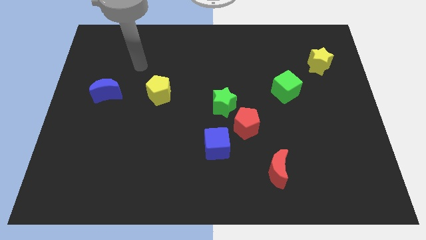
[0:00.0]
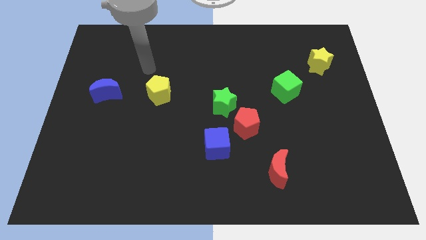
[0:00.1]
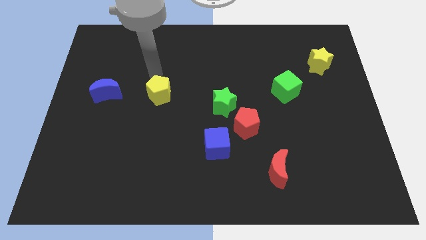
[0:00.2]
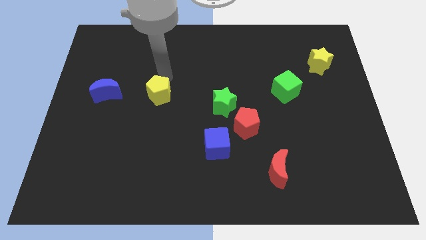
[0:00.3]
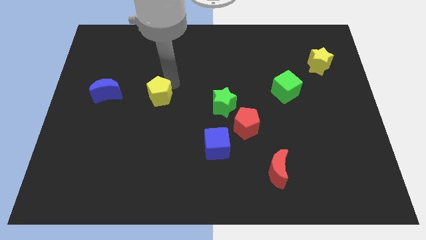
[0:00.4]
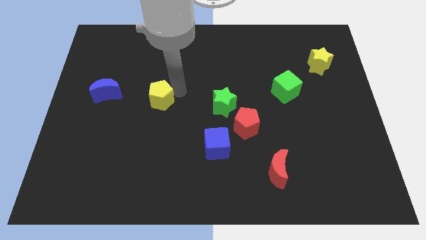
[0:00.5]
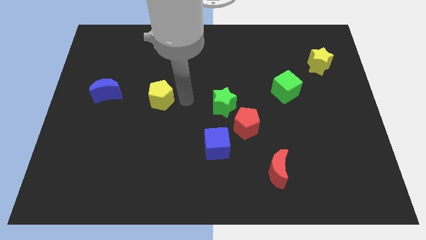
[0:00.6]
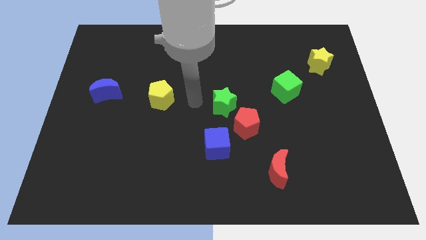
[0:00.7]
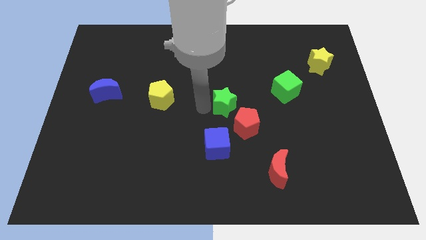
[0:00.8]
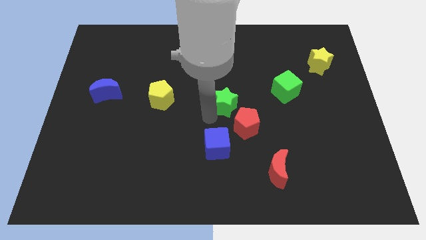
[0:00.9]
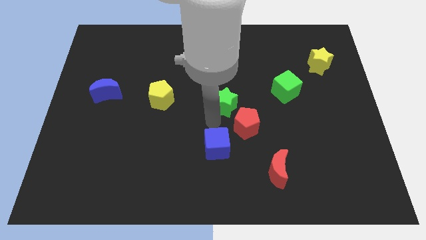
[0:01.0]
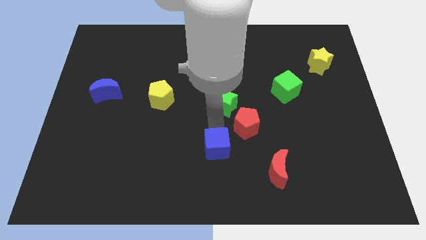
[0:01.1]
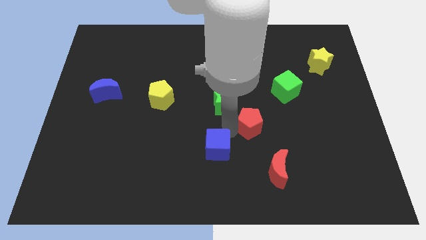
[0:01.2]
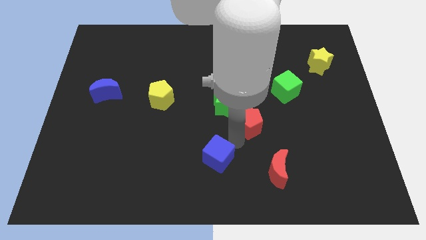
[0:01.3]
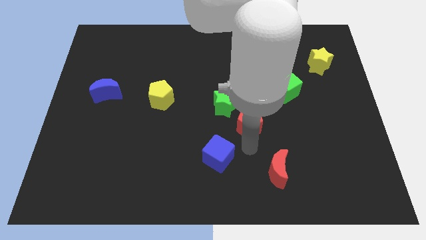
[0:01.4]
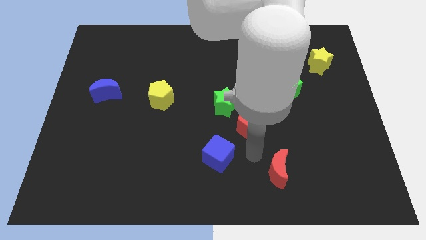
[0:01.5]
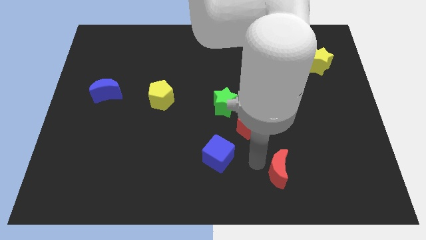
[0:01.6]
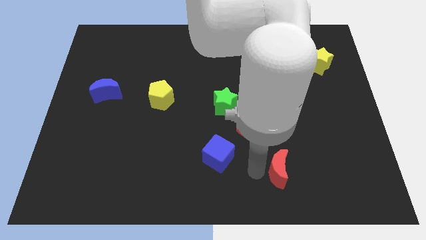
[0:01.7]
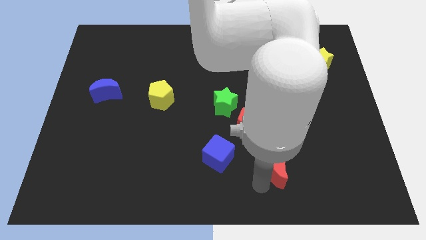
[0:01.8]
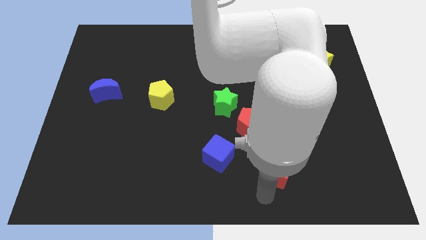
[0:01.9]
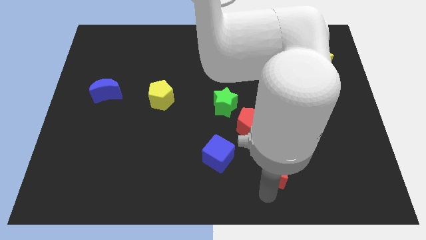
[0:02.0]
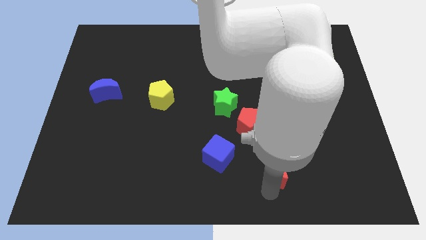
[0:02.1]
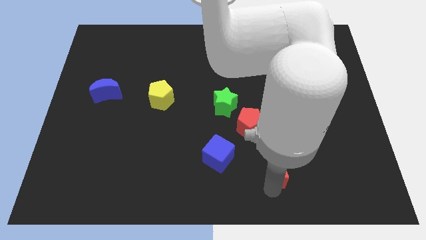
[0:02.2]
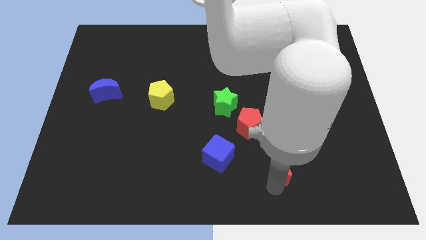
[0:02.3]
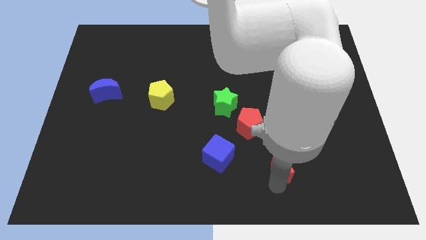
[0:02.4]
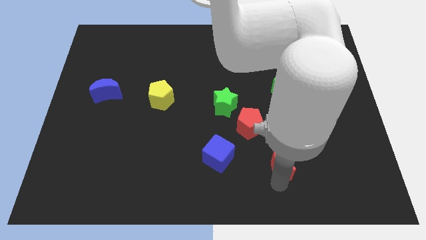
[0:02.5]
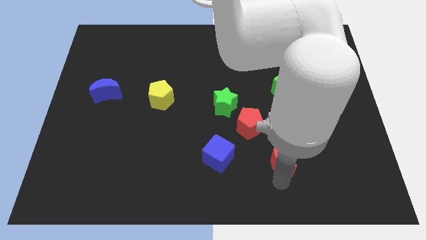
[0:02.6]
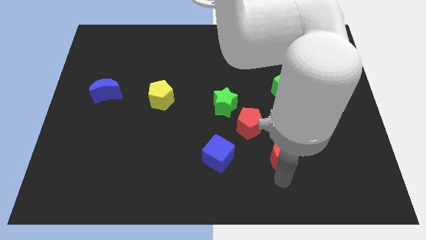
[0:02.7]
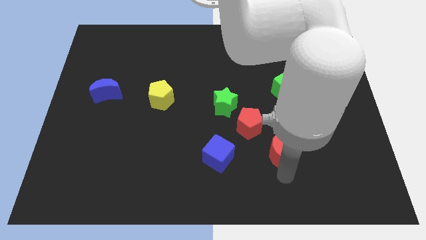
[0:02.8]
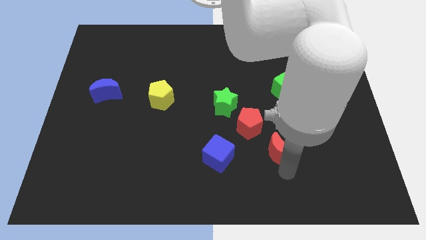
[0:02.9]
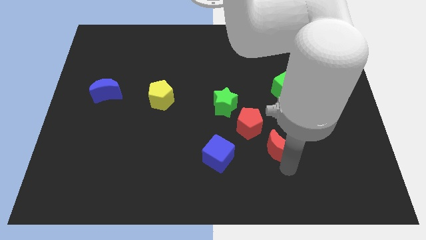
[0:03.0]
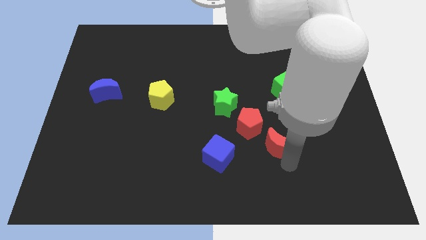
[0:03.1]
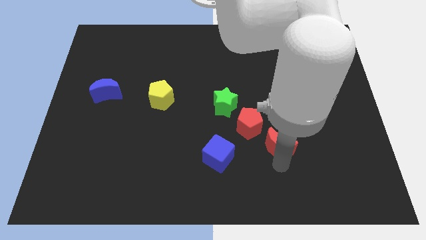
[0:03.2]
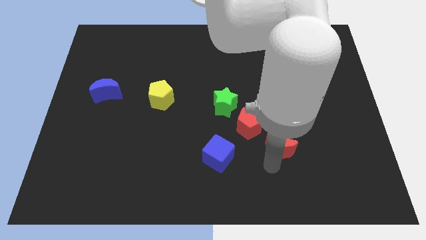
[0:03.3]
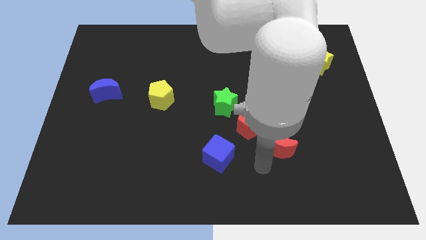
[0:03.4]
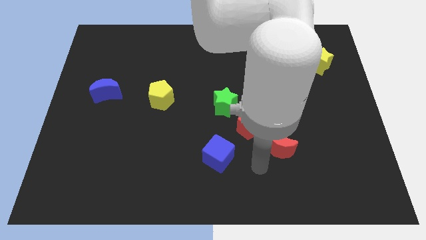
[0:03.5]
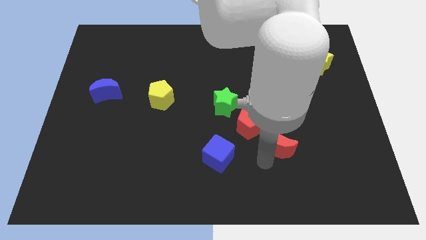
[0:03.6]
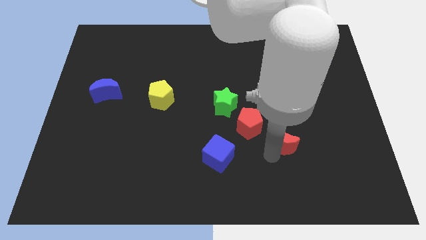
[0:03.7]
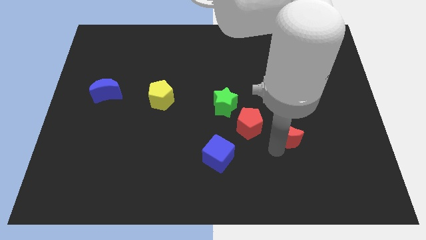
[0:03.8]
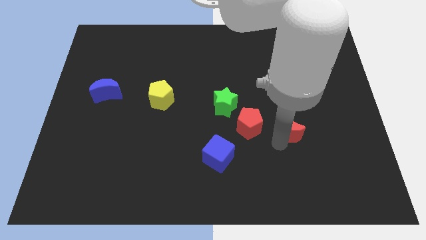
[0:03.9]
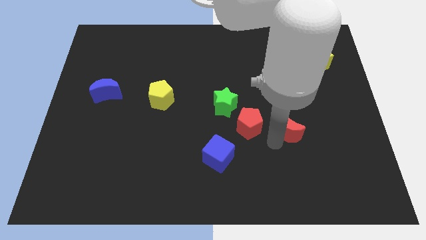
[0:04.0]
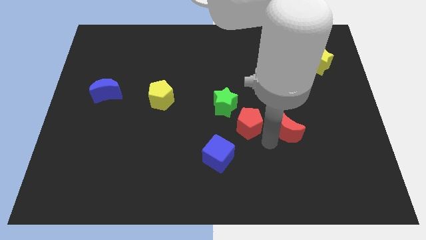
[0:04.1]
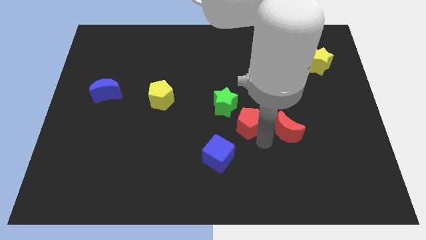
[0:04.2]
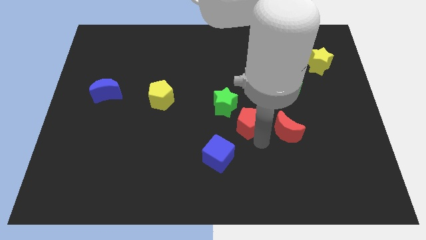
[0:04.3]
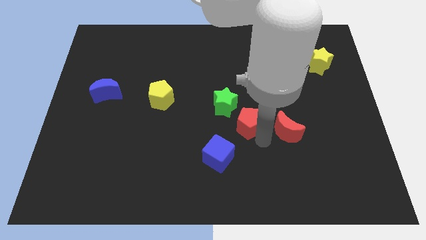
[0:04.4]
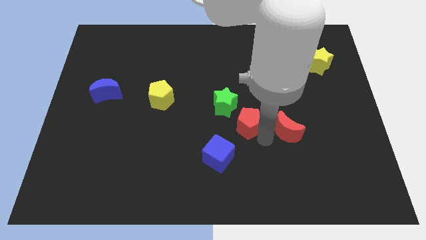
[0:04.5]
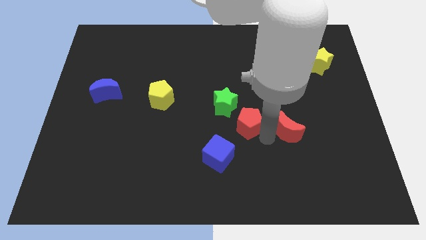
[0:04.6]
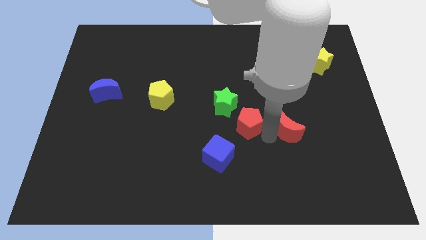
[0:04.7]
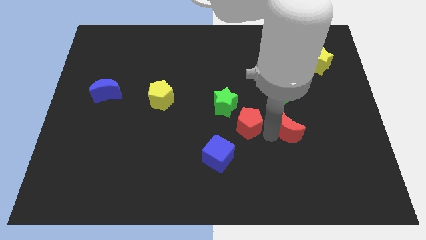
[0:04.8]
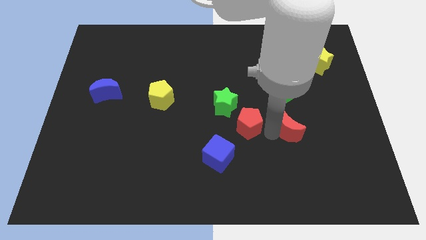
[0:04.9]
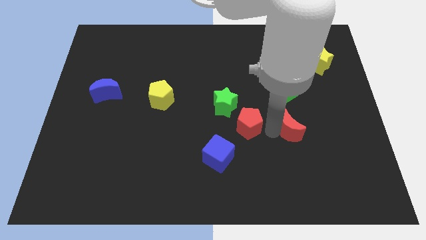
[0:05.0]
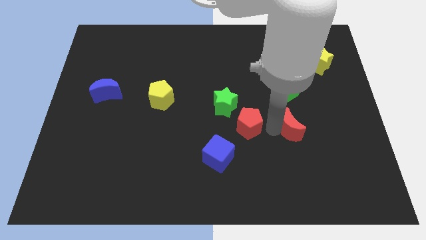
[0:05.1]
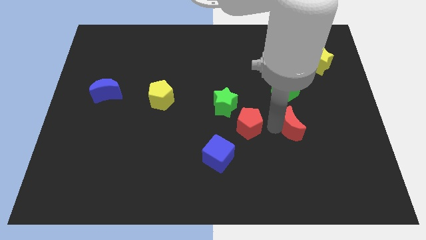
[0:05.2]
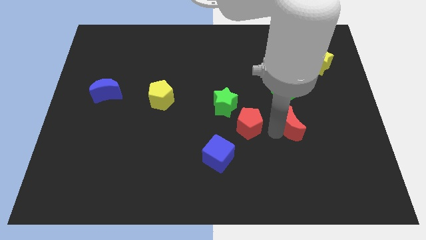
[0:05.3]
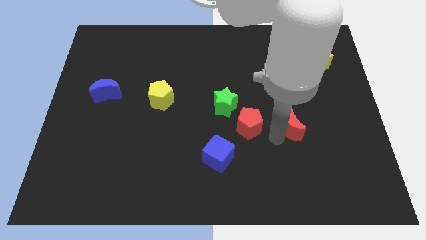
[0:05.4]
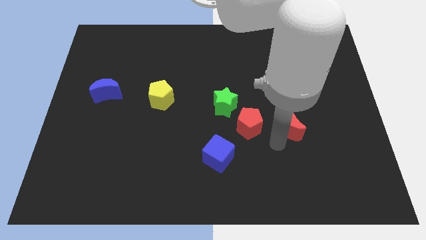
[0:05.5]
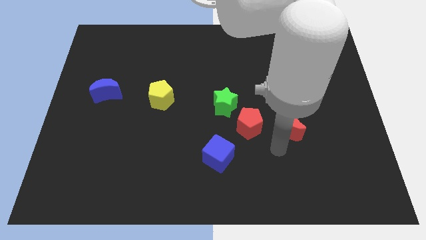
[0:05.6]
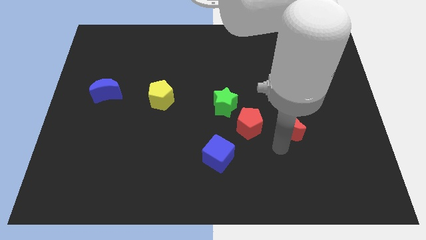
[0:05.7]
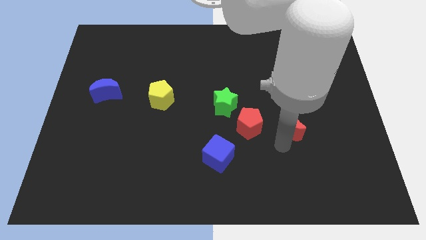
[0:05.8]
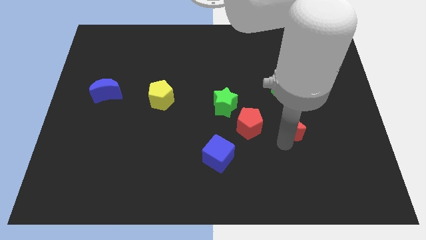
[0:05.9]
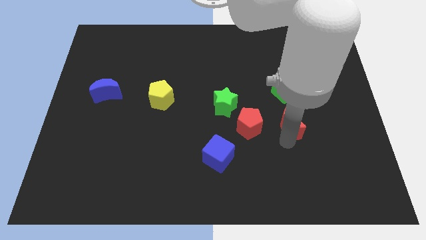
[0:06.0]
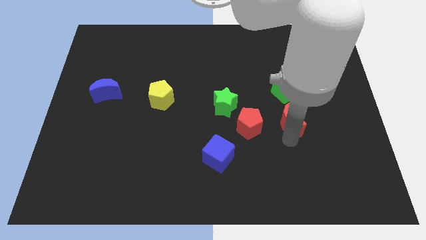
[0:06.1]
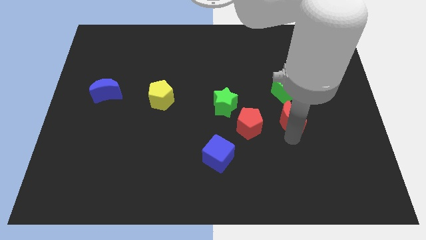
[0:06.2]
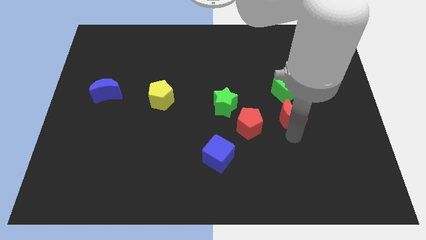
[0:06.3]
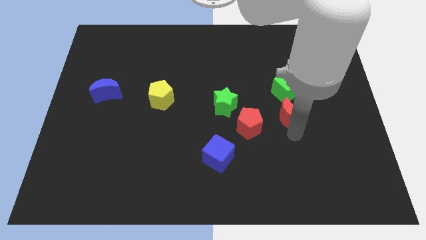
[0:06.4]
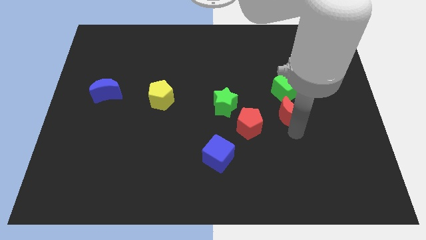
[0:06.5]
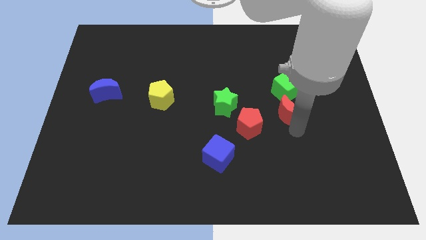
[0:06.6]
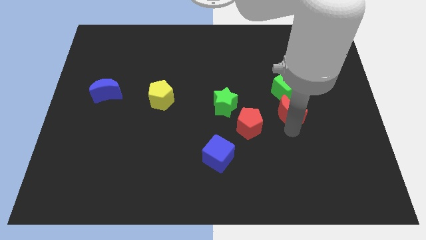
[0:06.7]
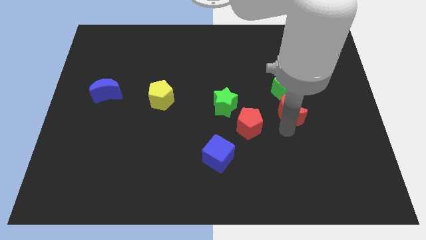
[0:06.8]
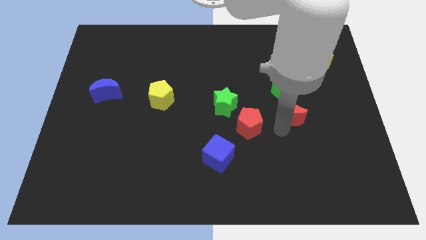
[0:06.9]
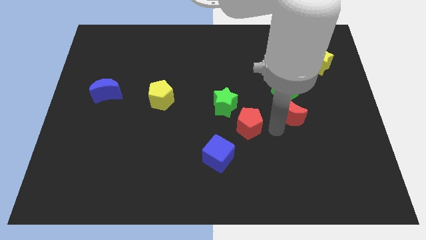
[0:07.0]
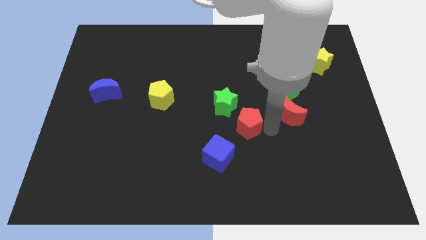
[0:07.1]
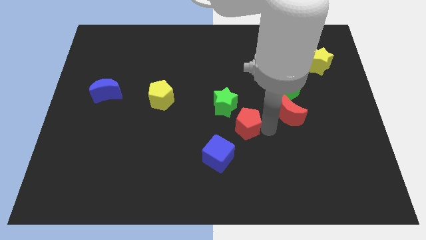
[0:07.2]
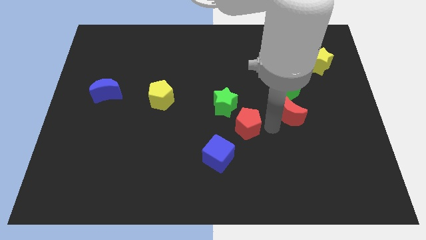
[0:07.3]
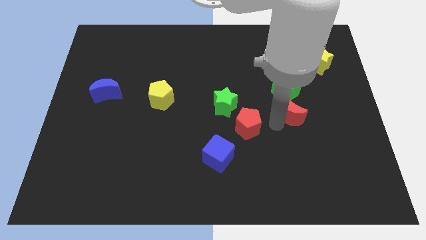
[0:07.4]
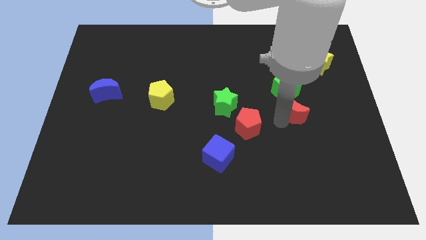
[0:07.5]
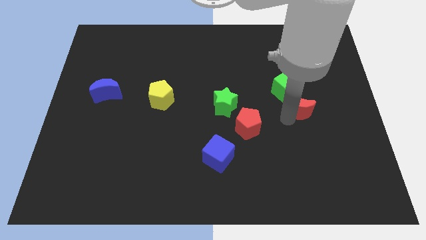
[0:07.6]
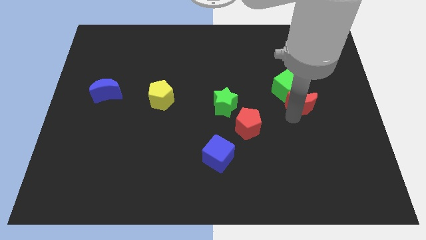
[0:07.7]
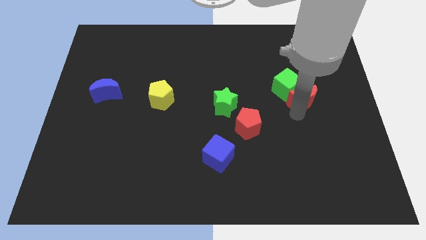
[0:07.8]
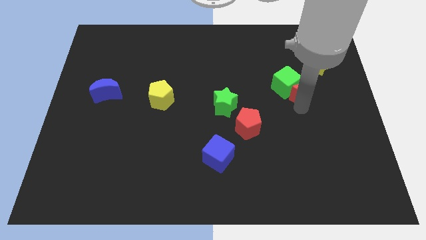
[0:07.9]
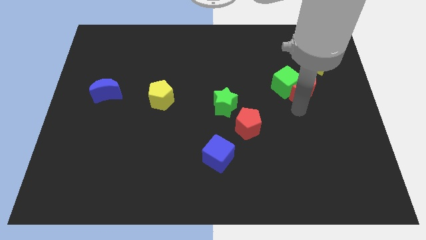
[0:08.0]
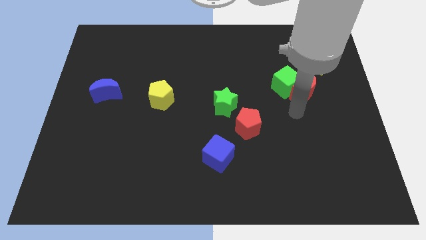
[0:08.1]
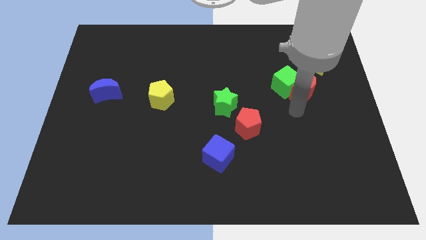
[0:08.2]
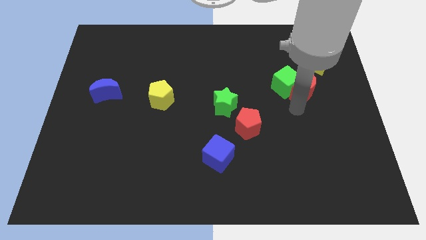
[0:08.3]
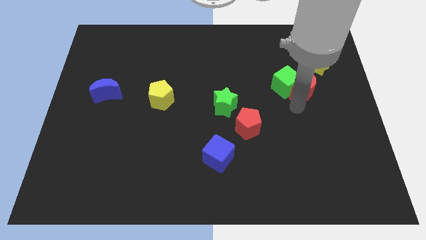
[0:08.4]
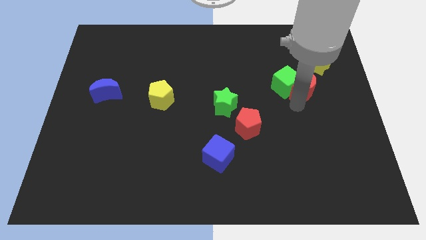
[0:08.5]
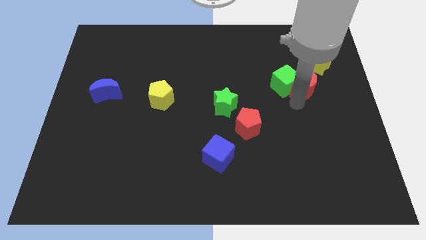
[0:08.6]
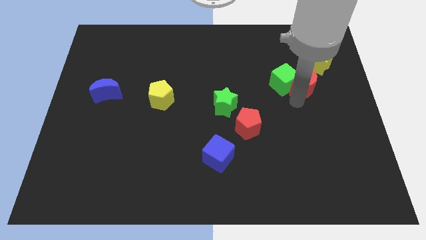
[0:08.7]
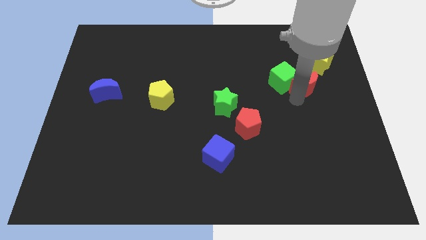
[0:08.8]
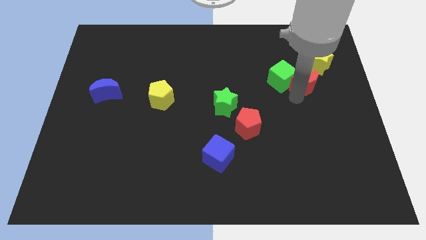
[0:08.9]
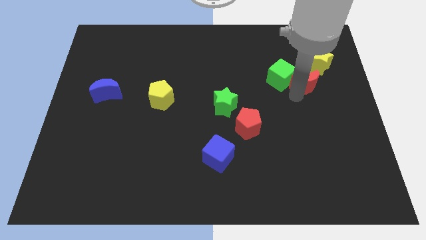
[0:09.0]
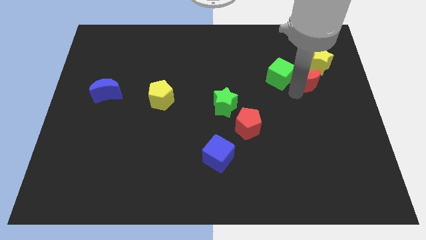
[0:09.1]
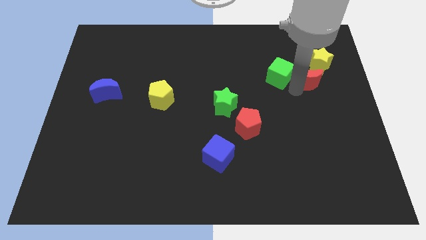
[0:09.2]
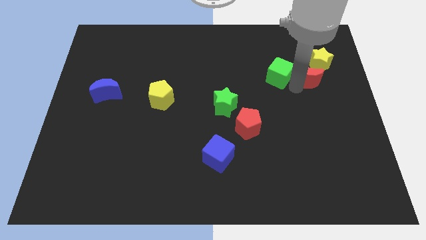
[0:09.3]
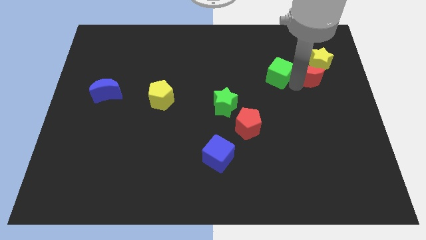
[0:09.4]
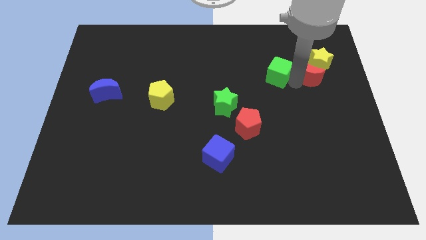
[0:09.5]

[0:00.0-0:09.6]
slide the red moon next to the yellow star
